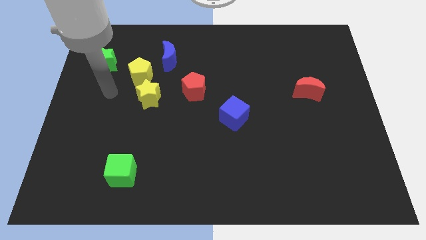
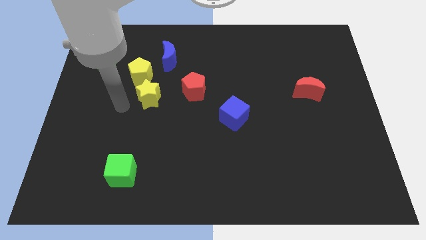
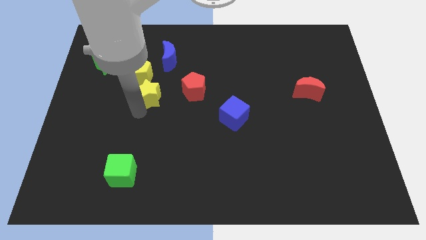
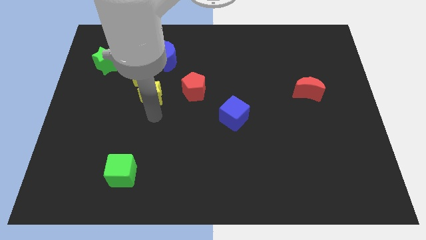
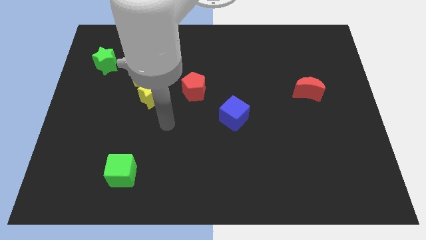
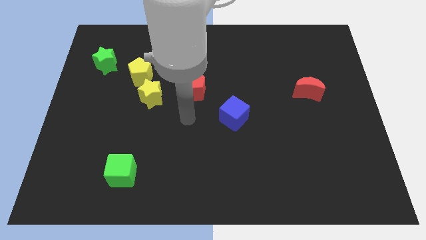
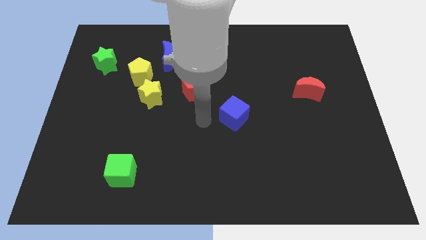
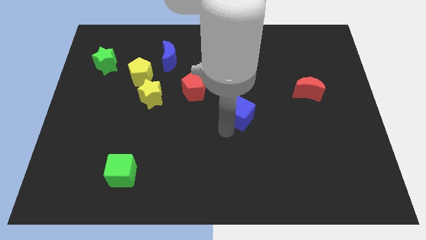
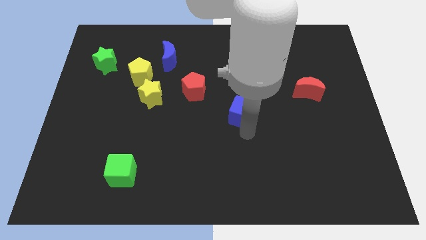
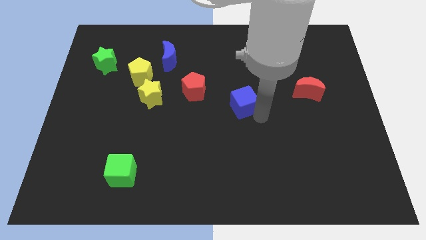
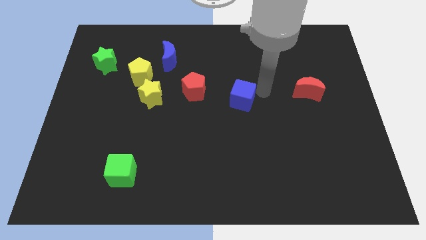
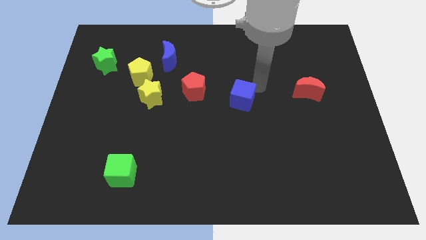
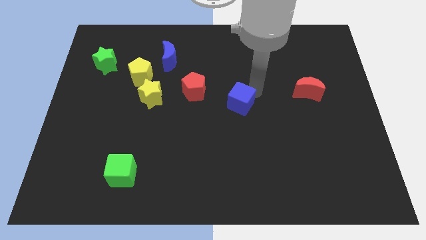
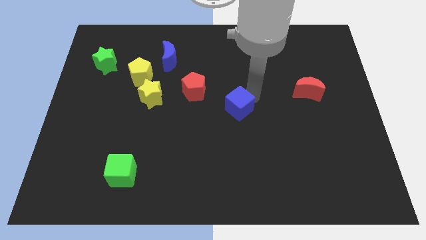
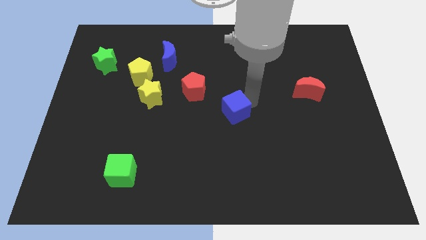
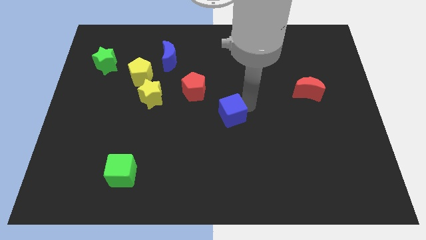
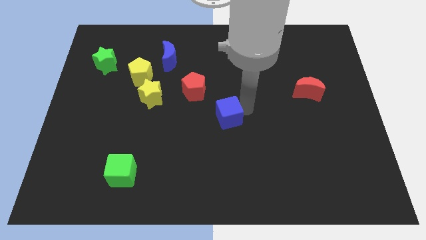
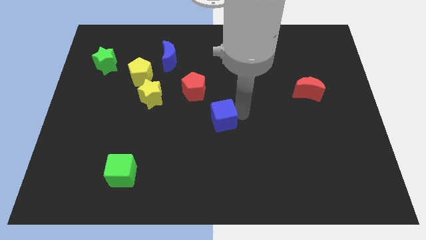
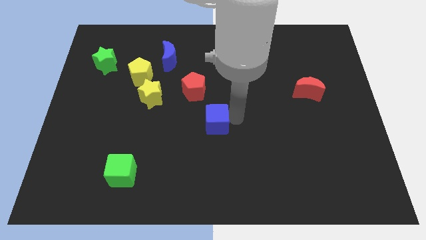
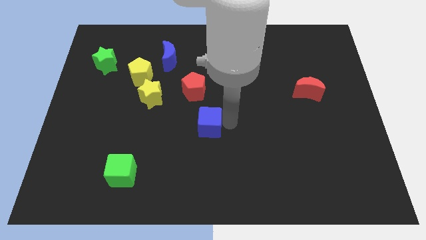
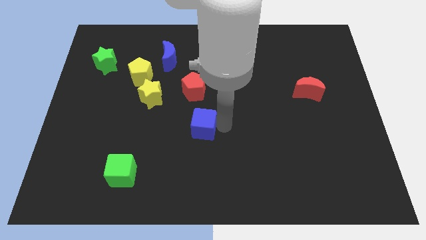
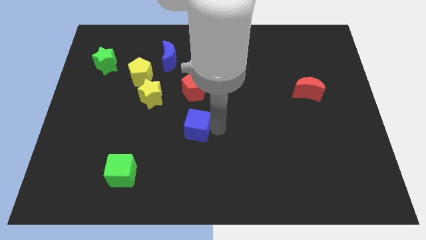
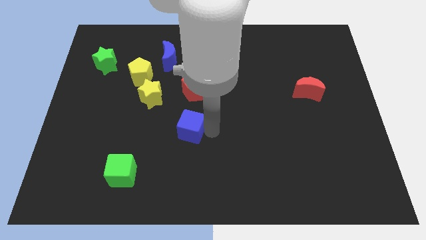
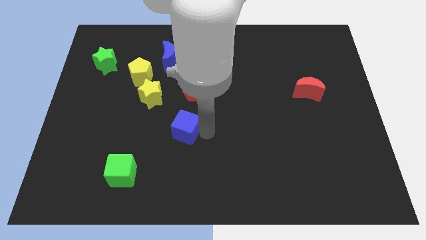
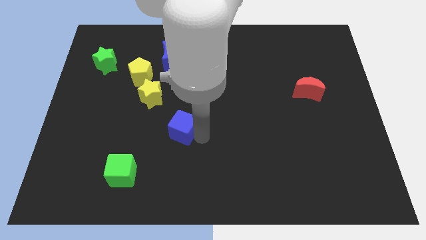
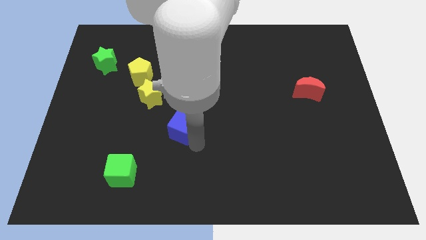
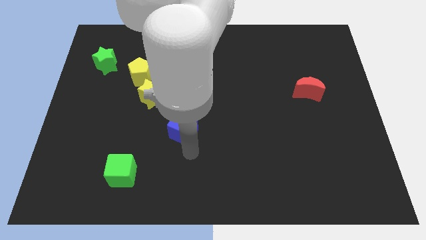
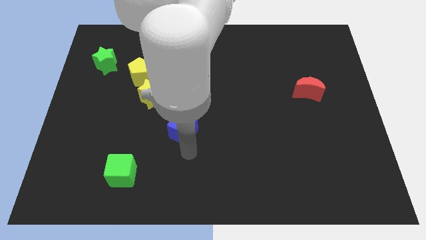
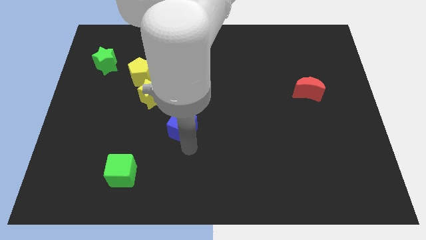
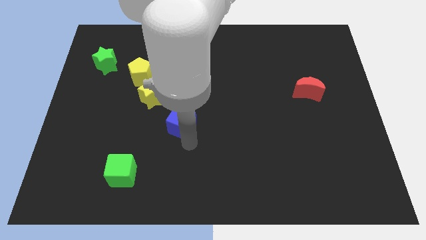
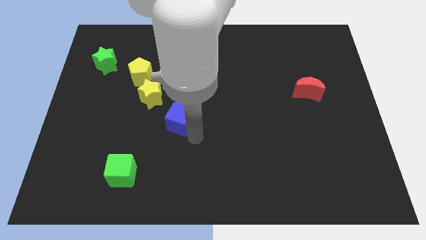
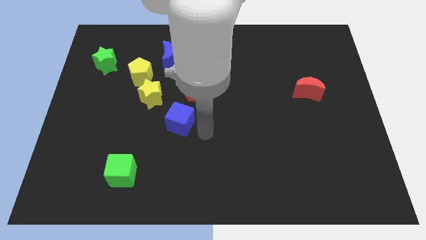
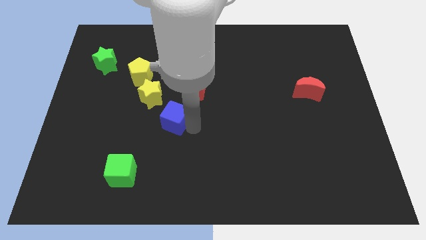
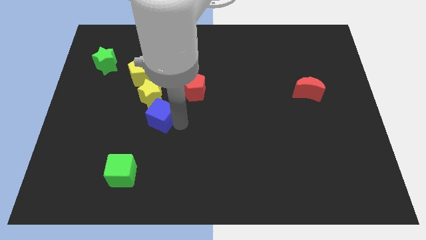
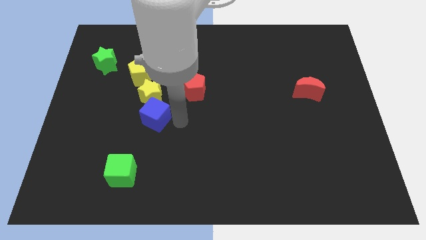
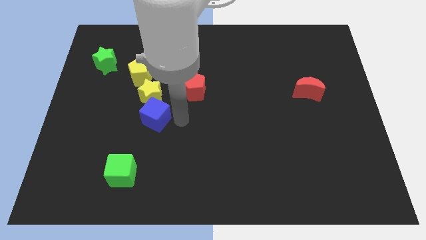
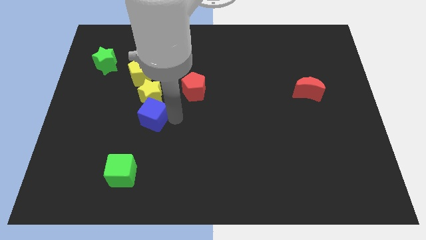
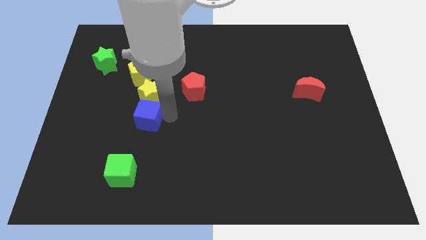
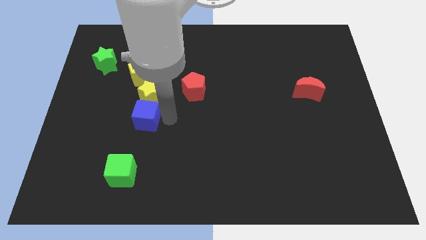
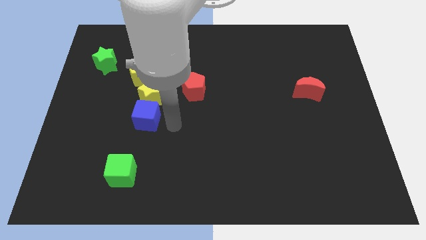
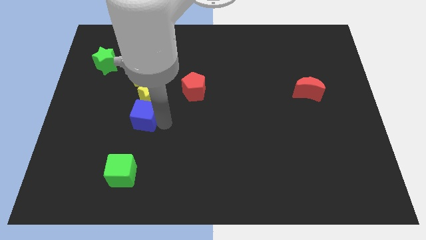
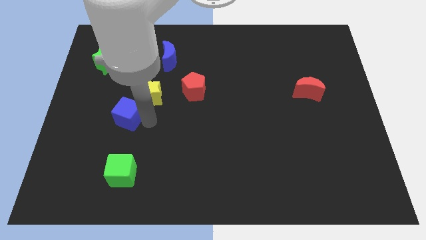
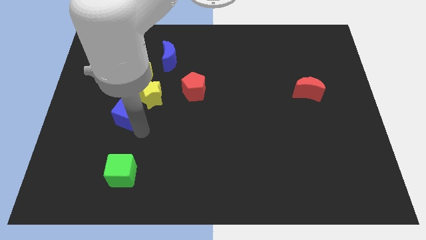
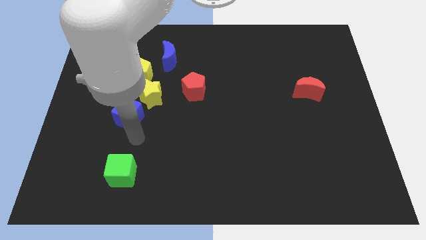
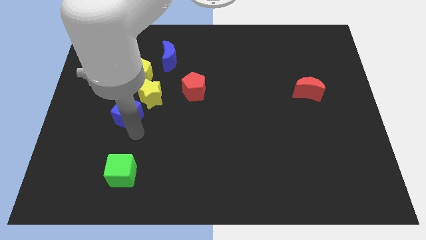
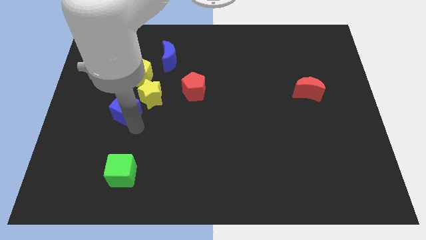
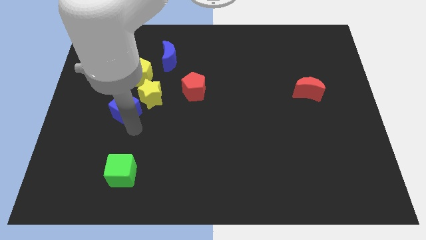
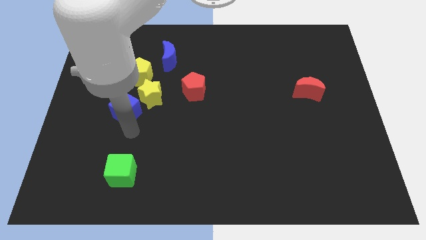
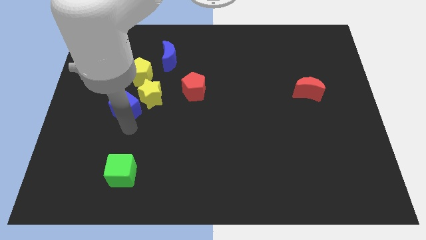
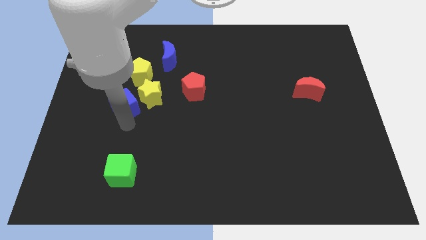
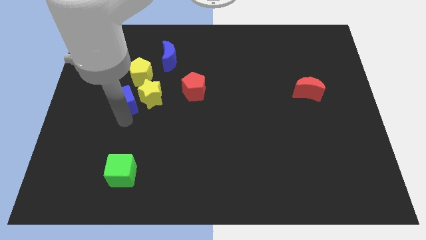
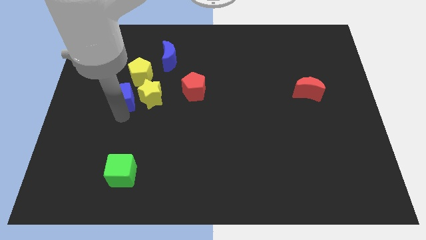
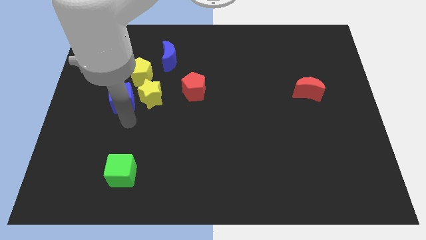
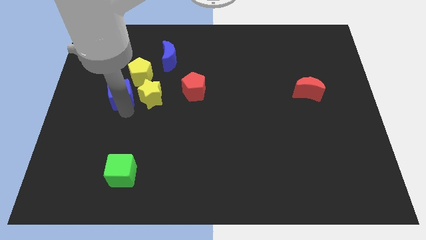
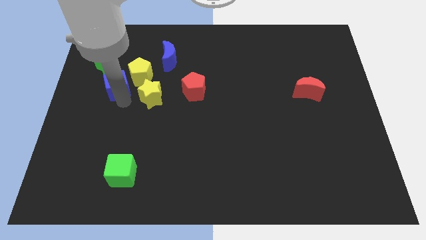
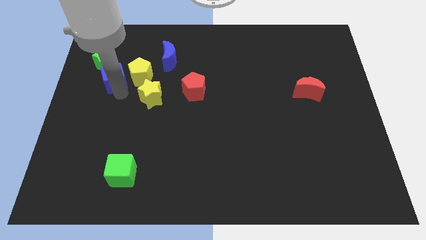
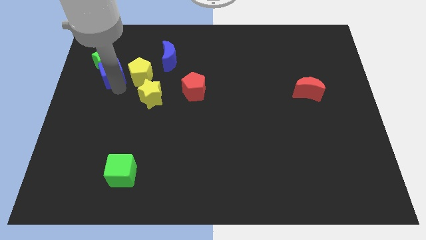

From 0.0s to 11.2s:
move the blue cube close to the green star

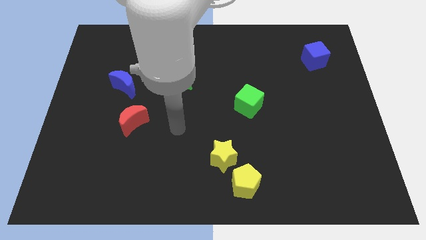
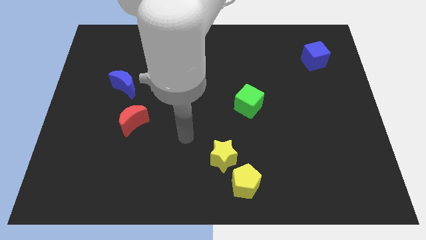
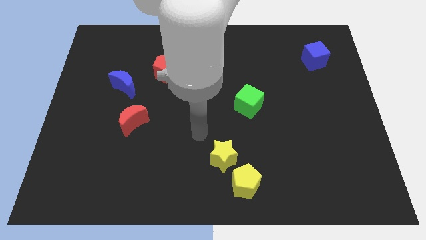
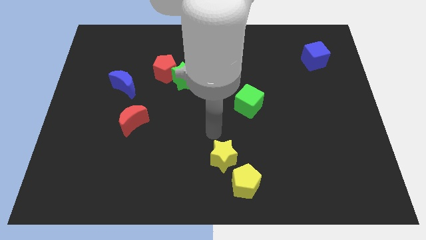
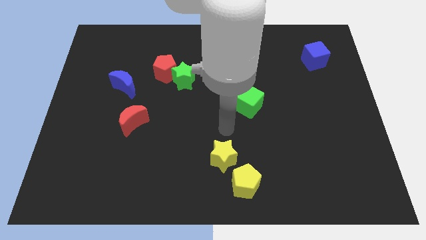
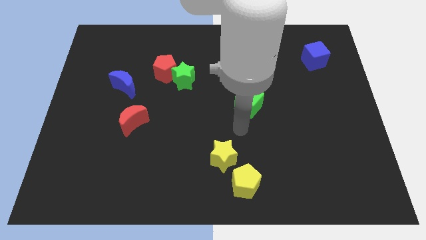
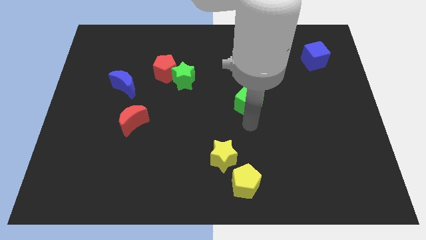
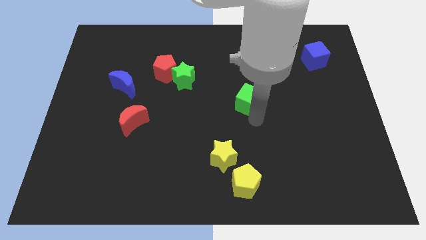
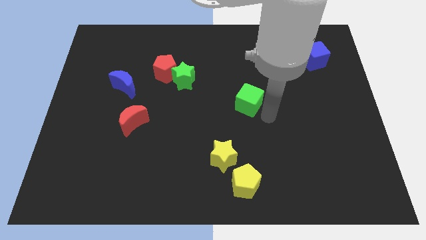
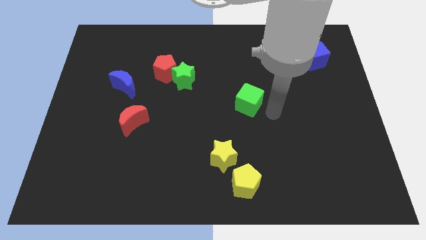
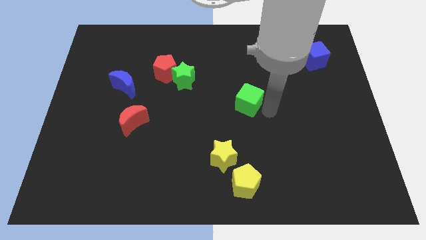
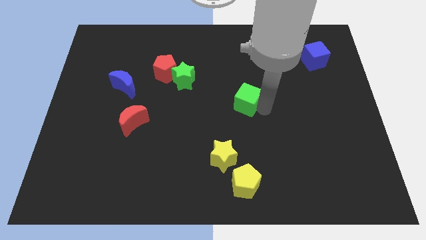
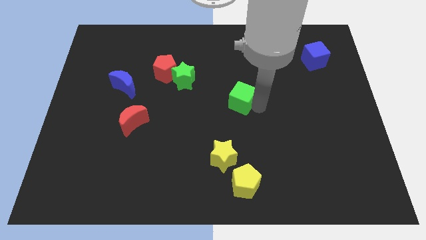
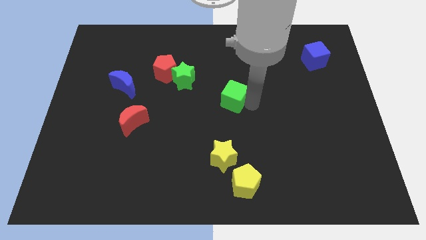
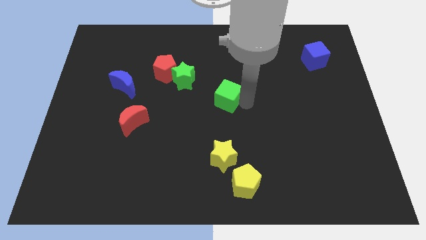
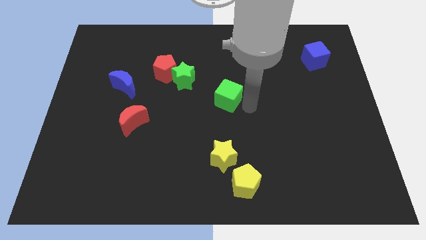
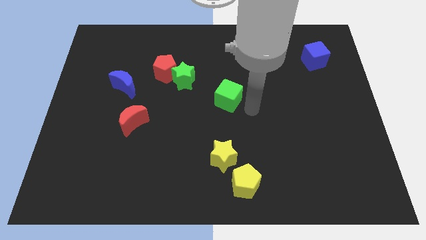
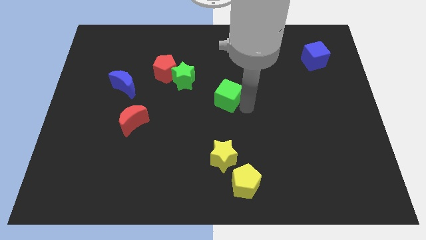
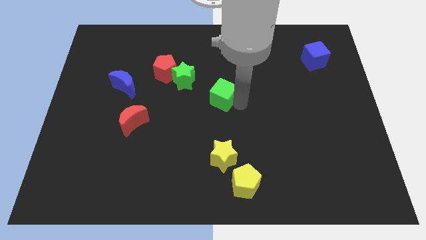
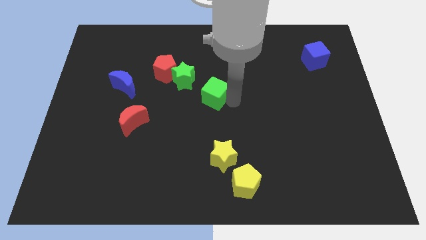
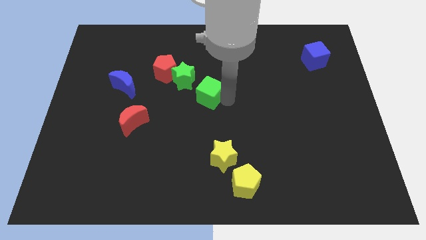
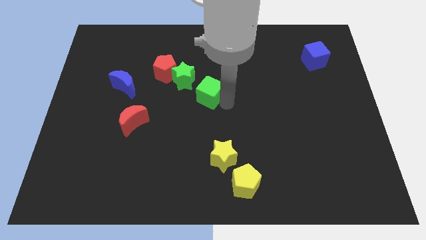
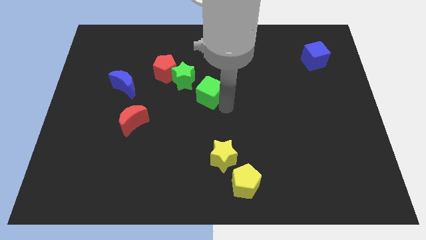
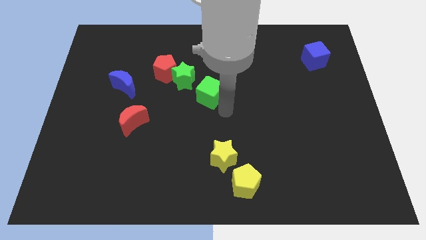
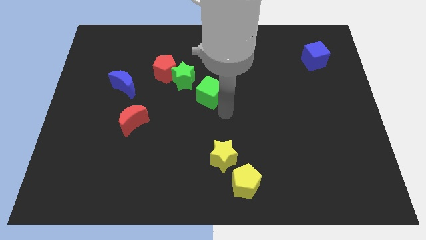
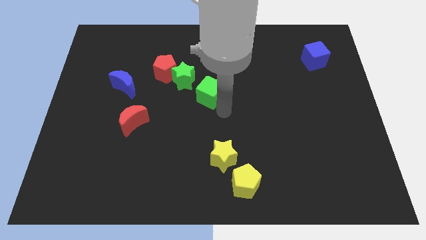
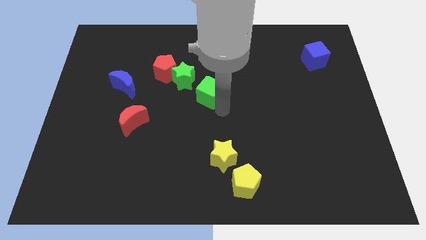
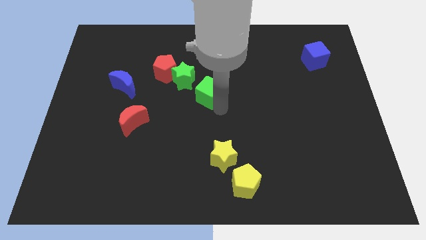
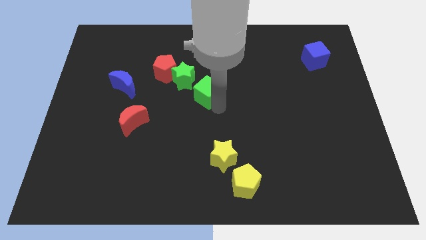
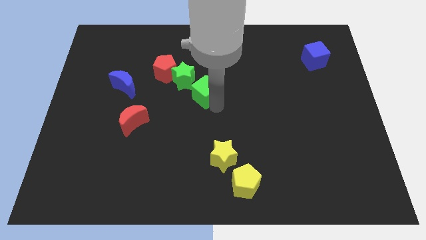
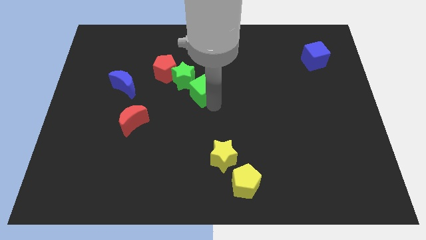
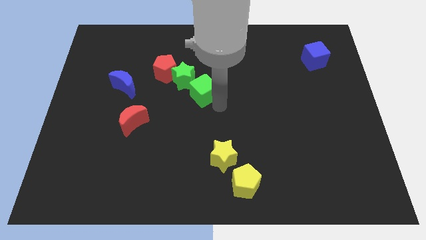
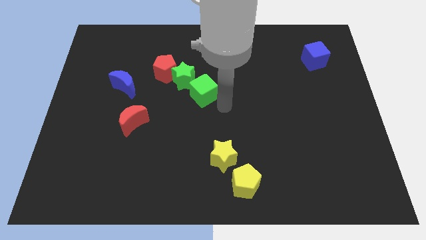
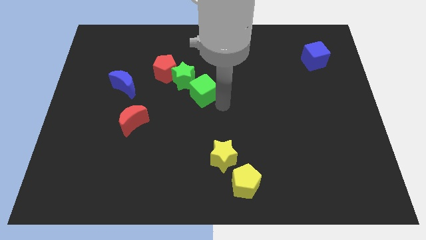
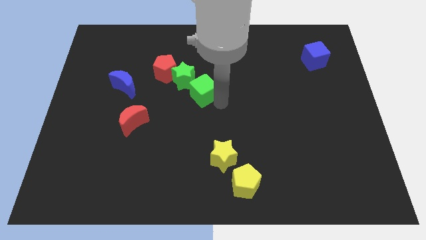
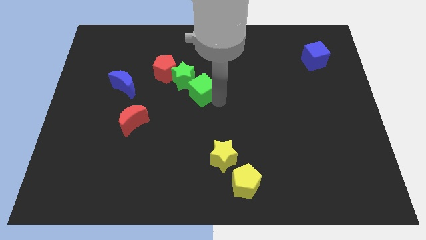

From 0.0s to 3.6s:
put the green cube to the green star
